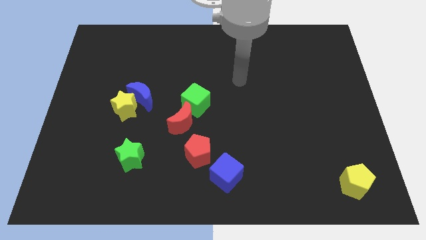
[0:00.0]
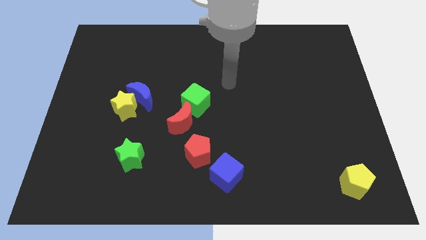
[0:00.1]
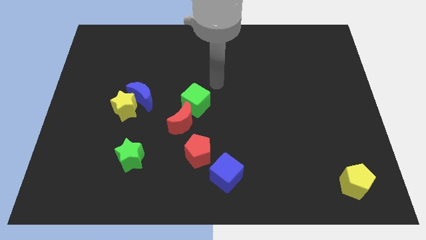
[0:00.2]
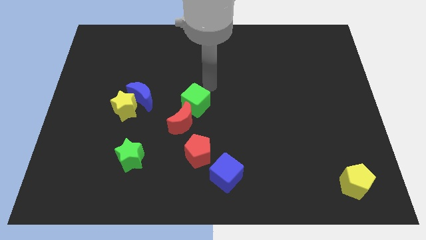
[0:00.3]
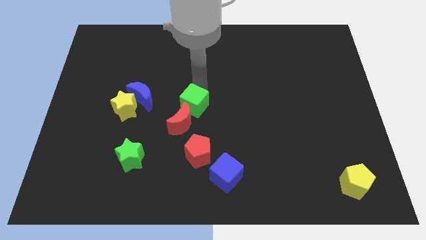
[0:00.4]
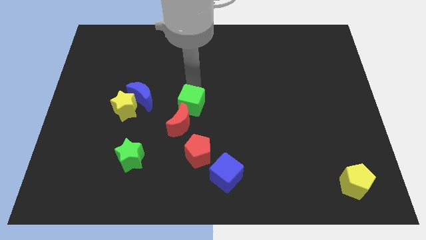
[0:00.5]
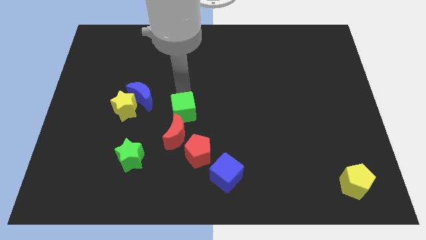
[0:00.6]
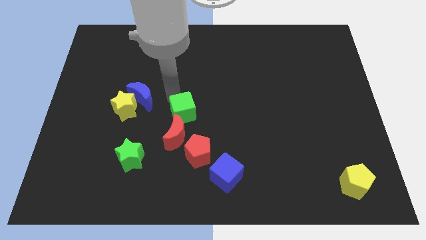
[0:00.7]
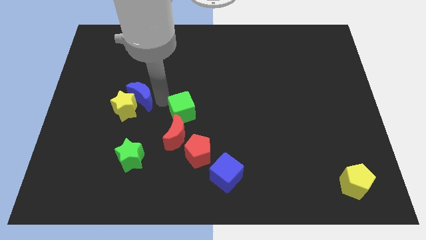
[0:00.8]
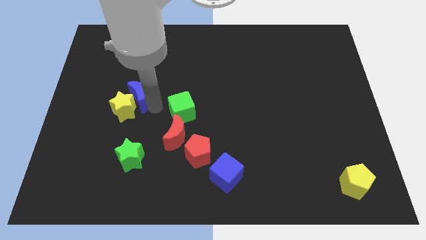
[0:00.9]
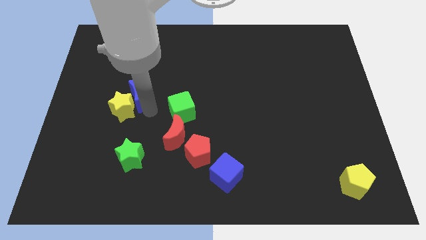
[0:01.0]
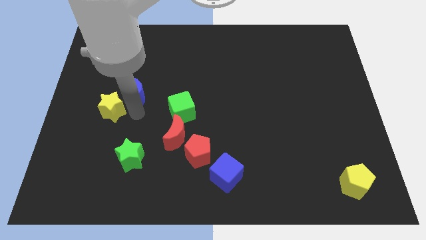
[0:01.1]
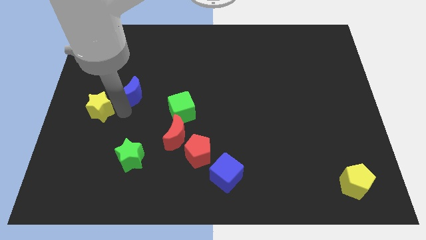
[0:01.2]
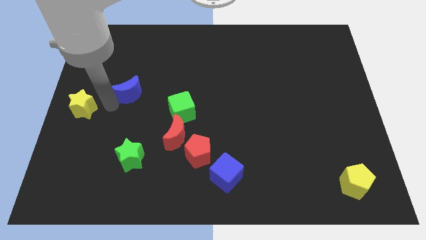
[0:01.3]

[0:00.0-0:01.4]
separate the blue moon from the yellow star

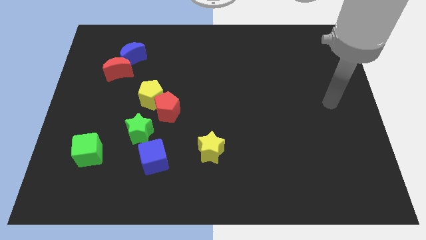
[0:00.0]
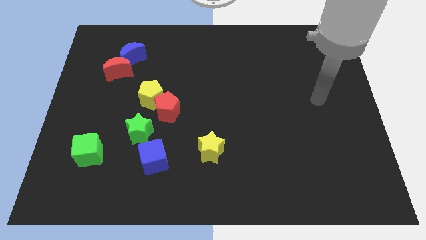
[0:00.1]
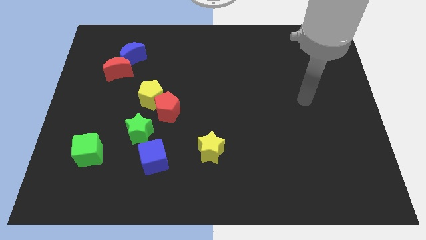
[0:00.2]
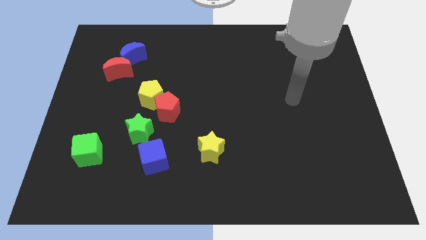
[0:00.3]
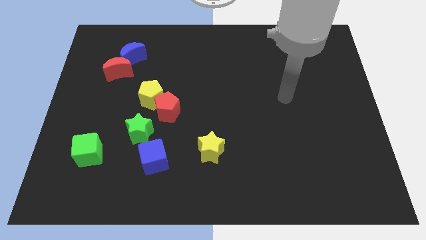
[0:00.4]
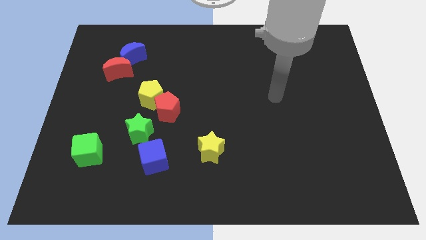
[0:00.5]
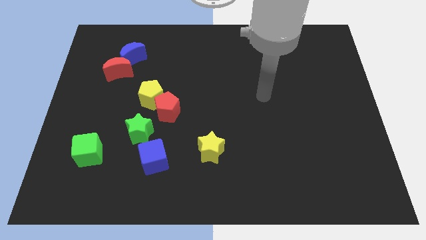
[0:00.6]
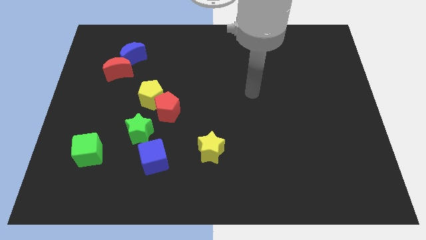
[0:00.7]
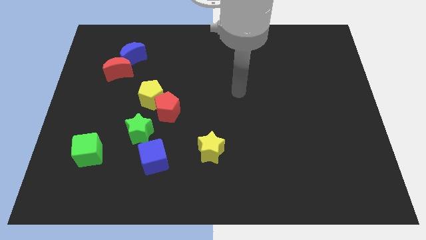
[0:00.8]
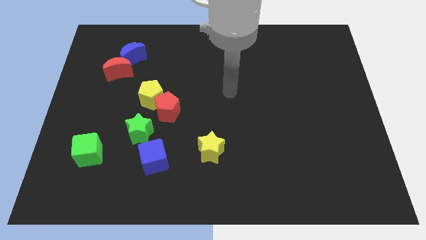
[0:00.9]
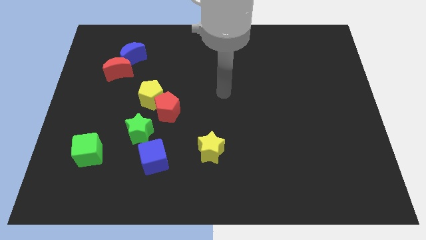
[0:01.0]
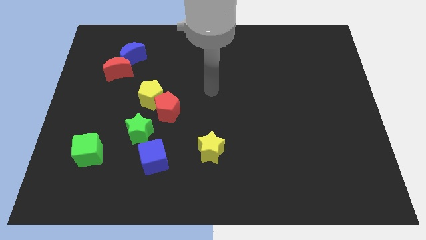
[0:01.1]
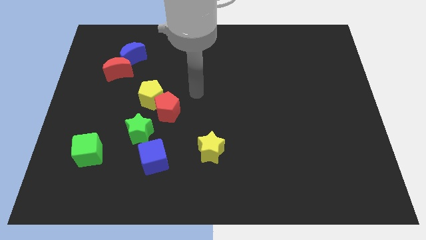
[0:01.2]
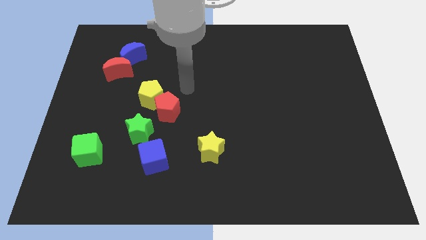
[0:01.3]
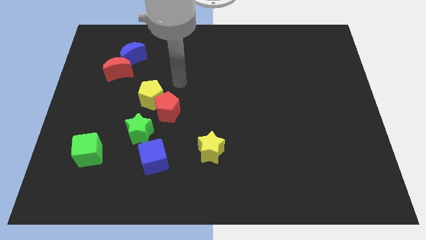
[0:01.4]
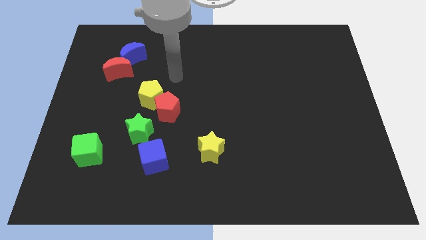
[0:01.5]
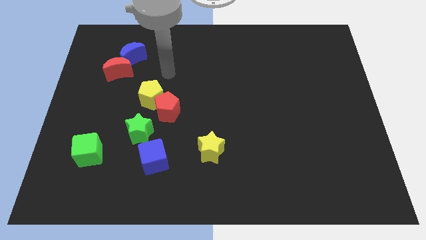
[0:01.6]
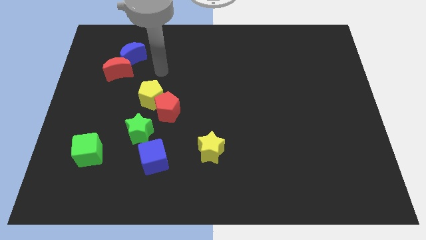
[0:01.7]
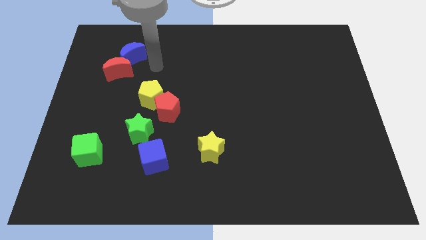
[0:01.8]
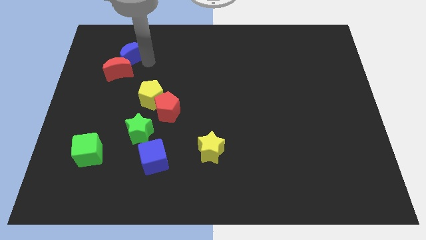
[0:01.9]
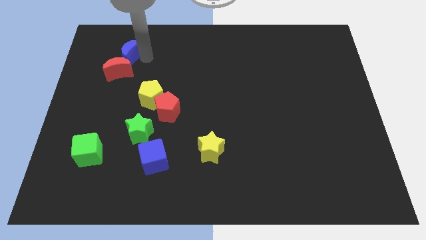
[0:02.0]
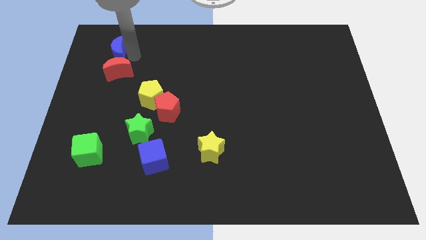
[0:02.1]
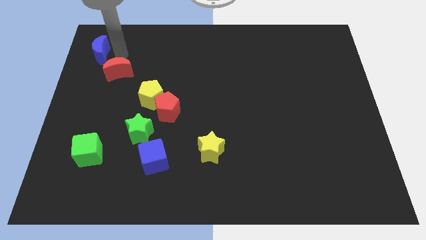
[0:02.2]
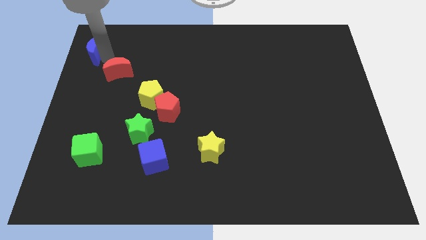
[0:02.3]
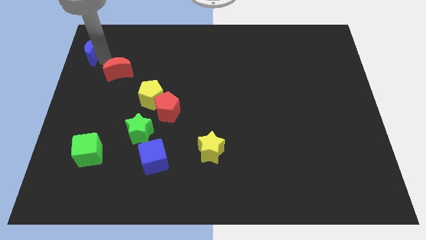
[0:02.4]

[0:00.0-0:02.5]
move the red moon away from the blue moon

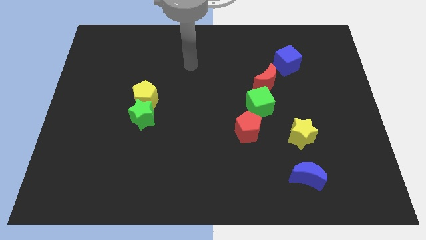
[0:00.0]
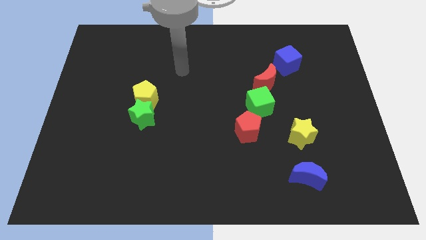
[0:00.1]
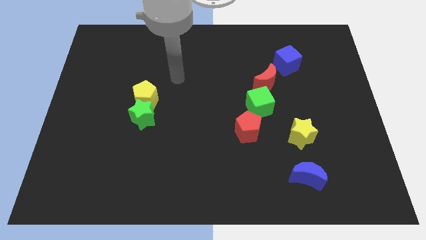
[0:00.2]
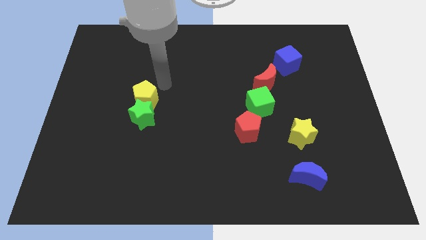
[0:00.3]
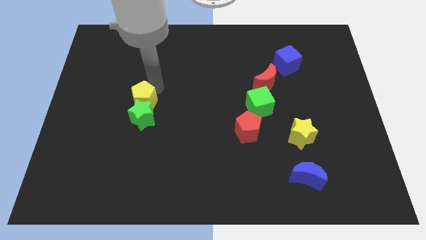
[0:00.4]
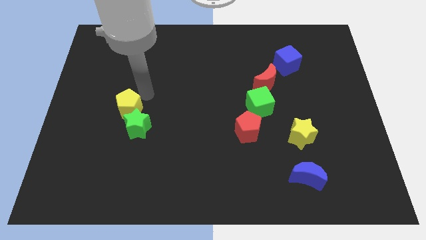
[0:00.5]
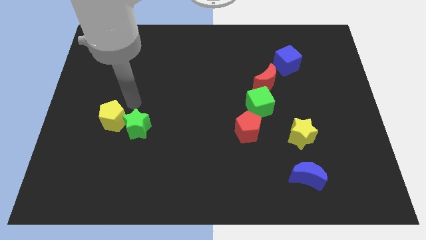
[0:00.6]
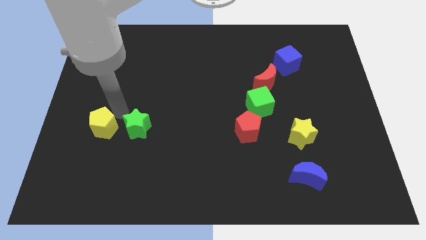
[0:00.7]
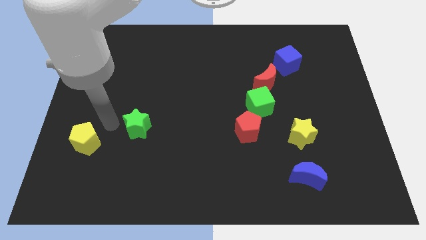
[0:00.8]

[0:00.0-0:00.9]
separate the green star from the yellow pentagon

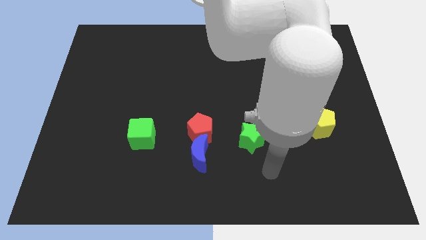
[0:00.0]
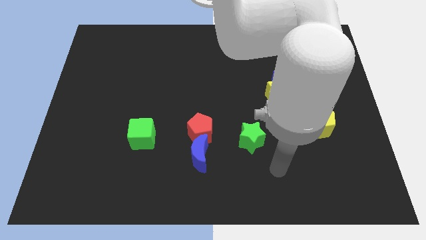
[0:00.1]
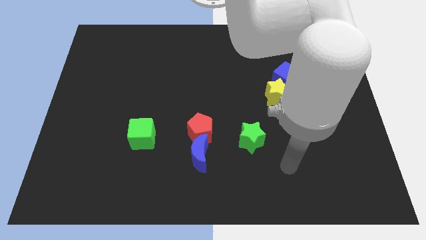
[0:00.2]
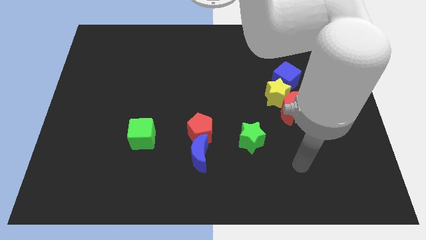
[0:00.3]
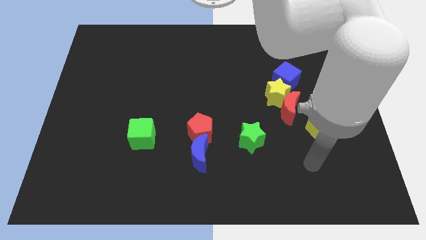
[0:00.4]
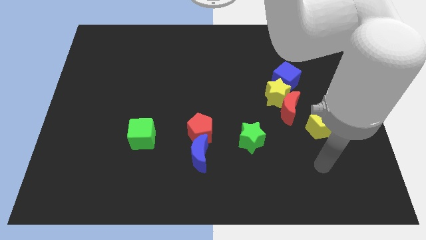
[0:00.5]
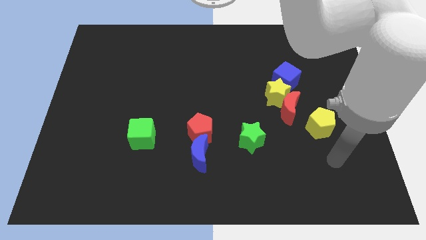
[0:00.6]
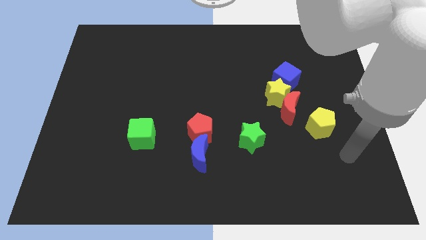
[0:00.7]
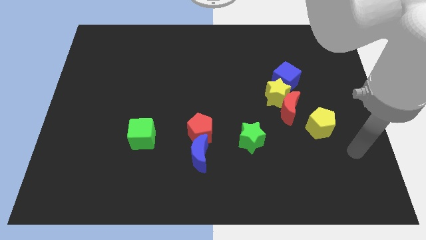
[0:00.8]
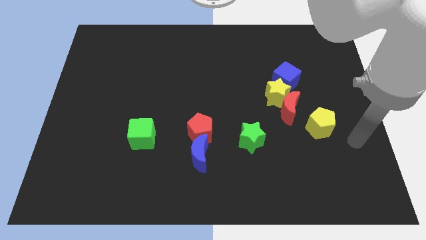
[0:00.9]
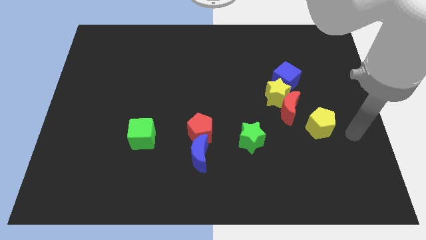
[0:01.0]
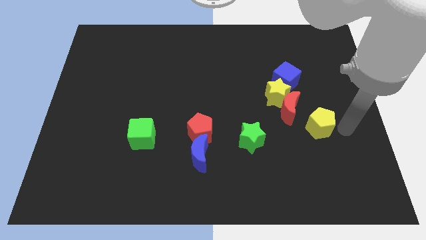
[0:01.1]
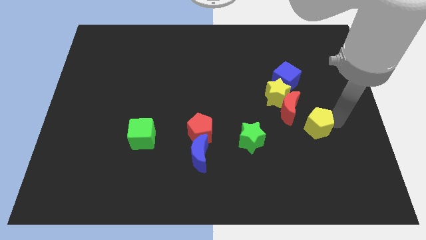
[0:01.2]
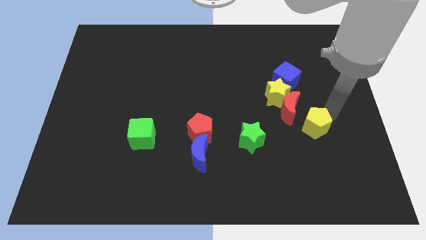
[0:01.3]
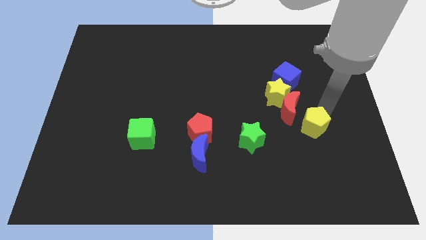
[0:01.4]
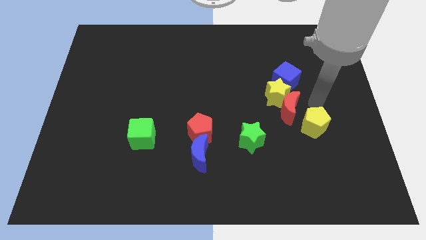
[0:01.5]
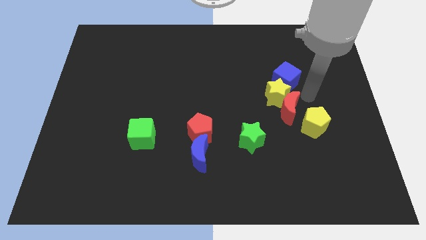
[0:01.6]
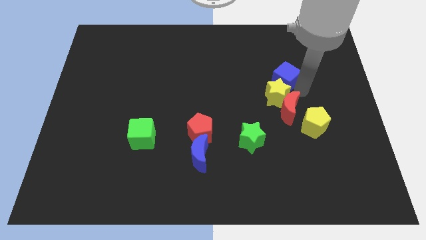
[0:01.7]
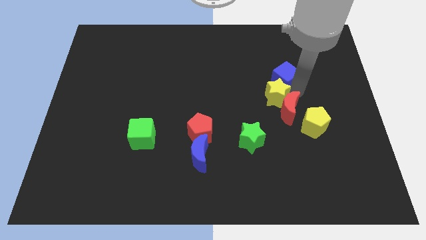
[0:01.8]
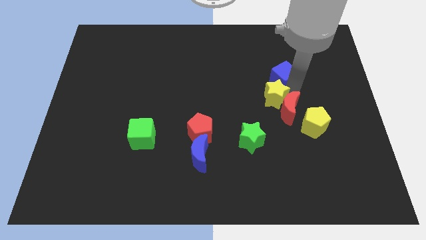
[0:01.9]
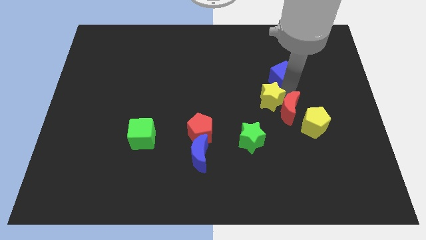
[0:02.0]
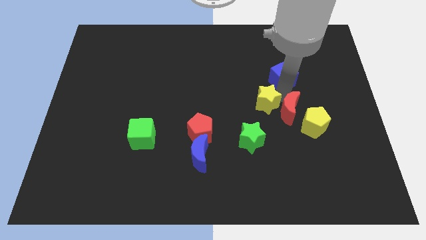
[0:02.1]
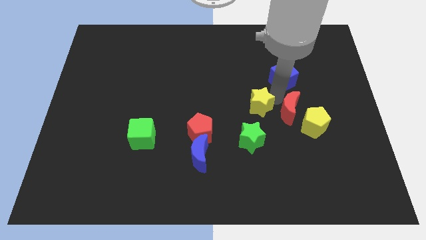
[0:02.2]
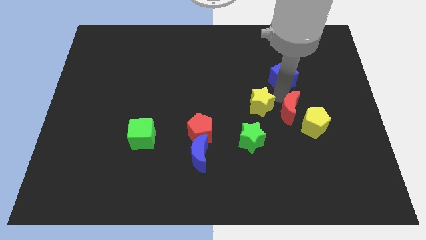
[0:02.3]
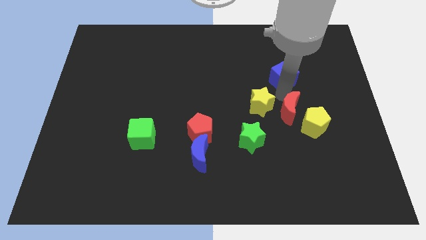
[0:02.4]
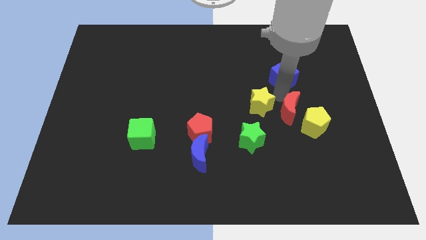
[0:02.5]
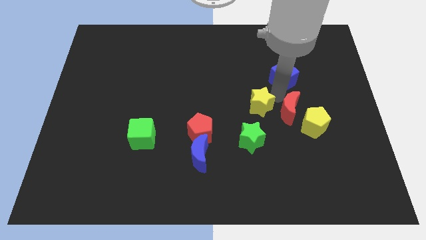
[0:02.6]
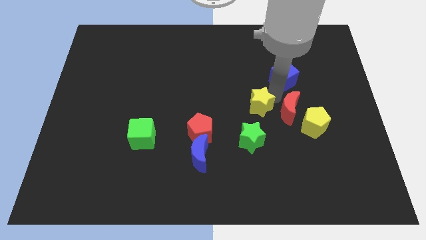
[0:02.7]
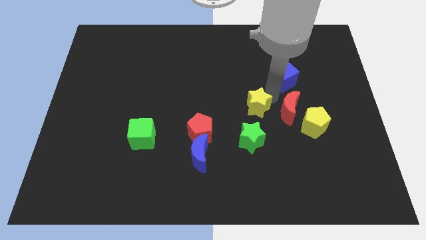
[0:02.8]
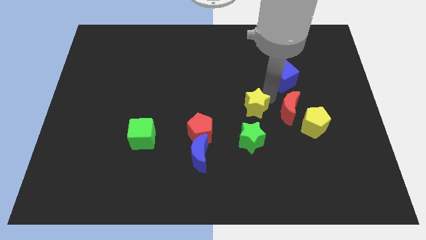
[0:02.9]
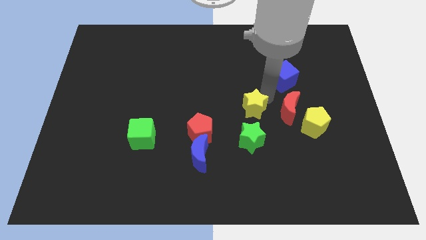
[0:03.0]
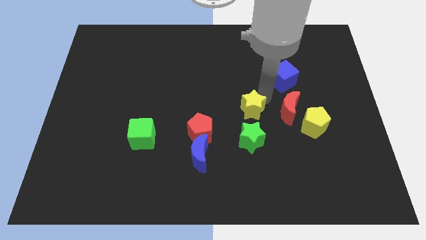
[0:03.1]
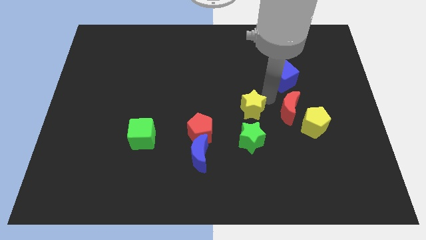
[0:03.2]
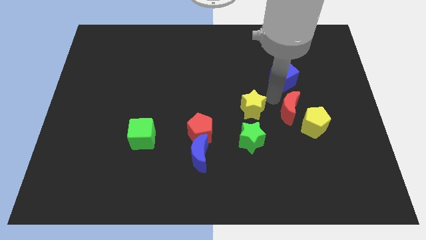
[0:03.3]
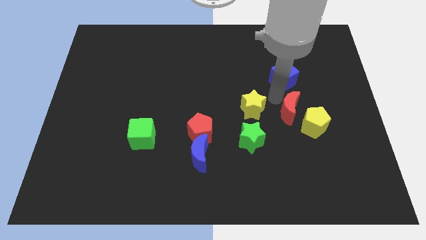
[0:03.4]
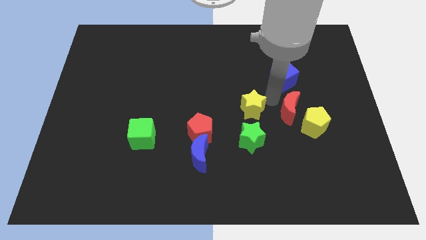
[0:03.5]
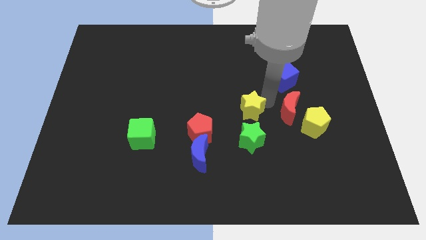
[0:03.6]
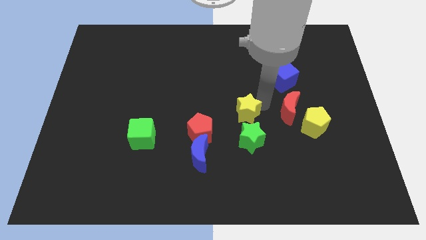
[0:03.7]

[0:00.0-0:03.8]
move the yellow star away from the red moon and blue cube

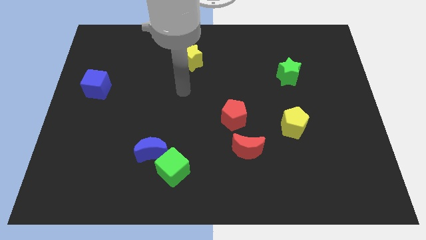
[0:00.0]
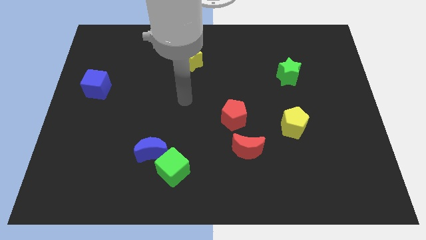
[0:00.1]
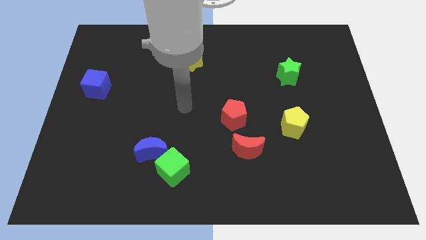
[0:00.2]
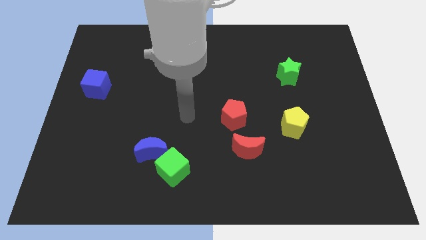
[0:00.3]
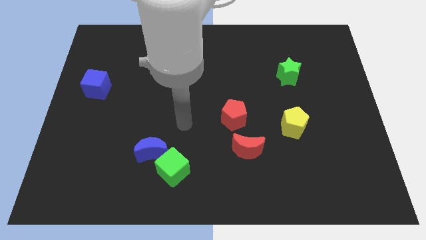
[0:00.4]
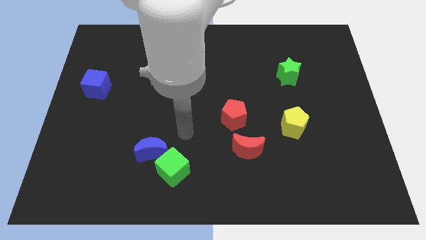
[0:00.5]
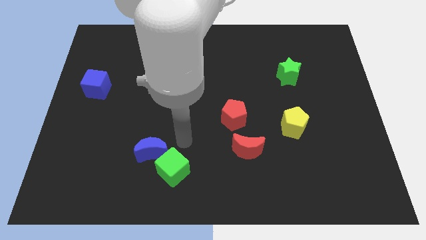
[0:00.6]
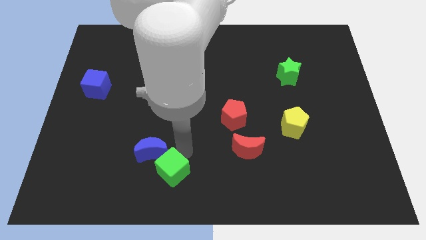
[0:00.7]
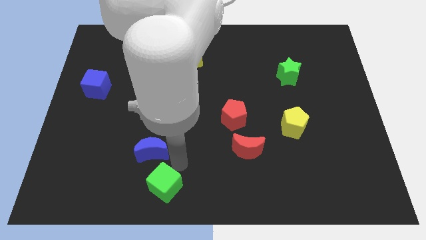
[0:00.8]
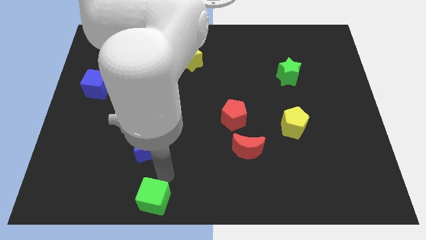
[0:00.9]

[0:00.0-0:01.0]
move the blue moon away from the green cube
